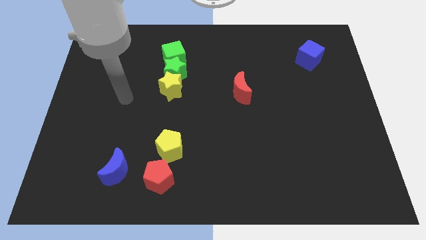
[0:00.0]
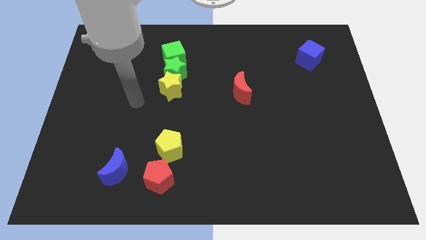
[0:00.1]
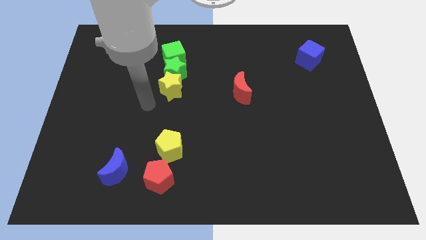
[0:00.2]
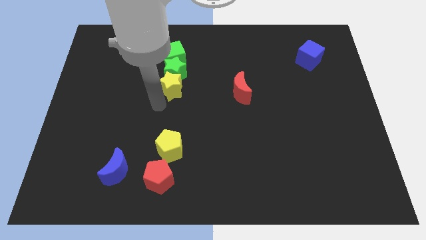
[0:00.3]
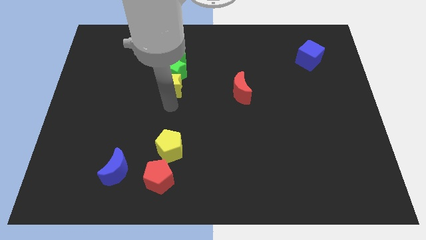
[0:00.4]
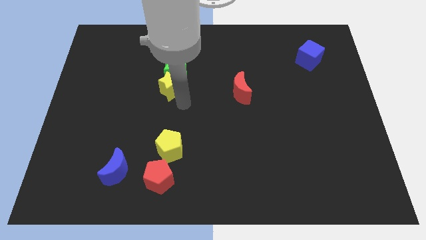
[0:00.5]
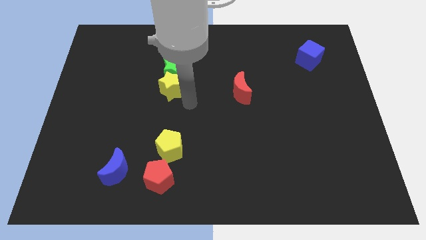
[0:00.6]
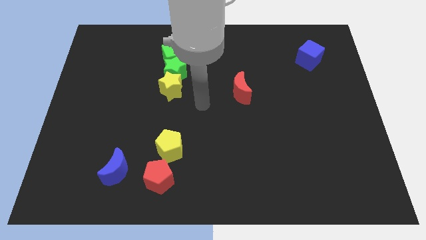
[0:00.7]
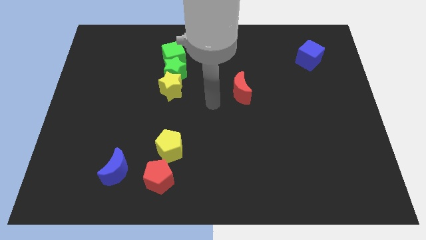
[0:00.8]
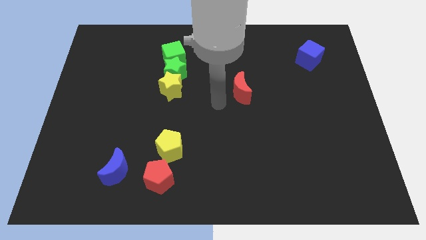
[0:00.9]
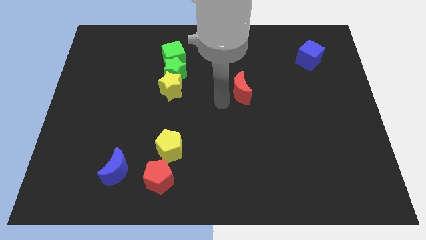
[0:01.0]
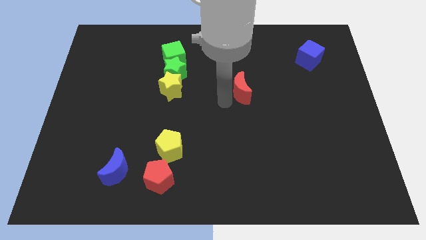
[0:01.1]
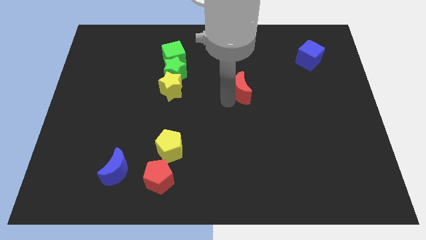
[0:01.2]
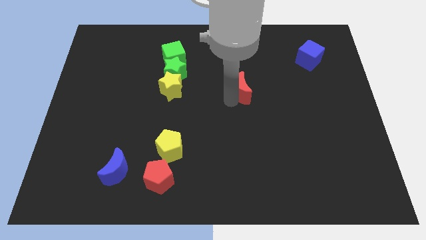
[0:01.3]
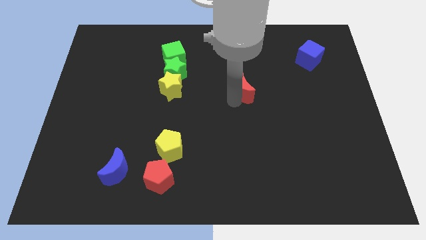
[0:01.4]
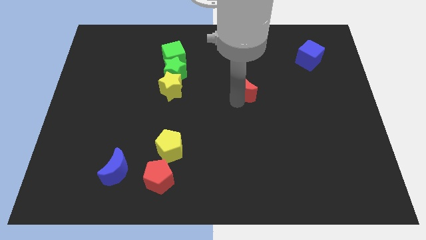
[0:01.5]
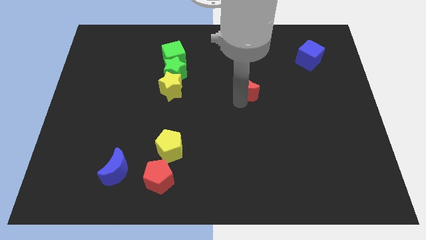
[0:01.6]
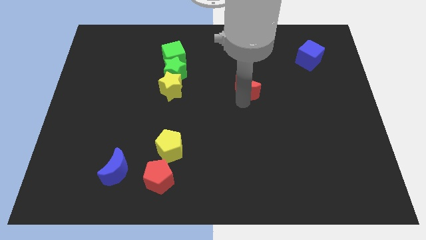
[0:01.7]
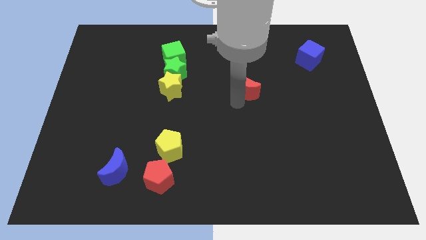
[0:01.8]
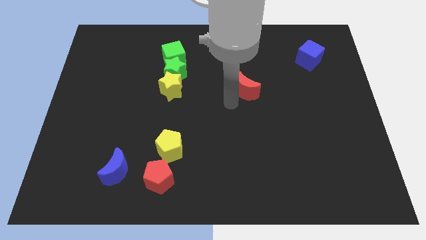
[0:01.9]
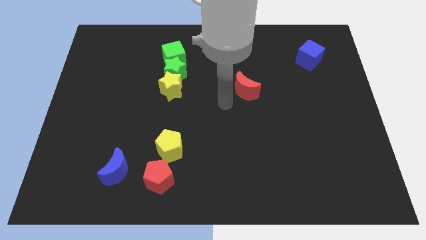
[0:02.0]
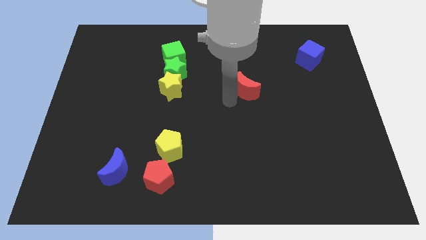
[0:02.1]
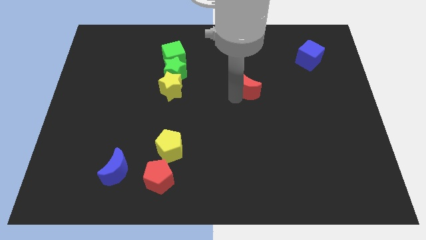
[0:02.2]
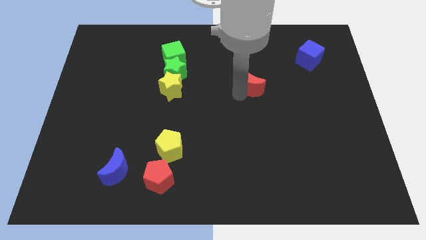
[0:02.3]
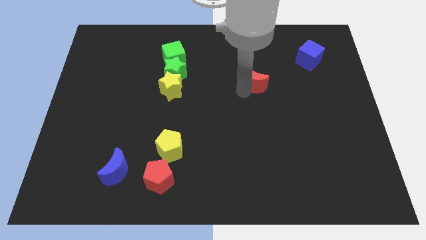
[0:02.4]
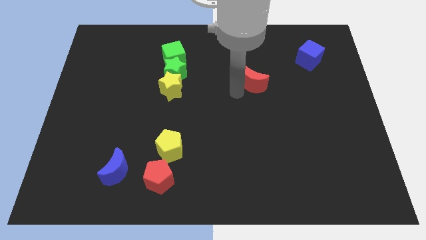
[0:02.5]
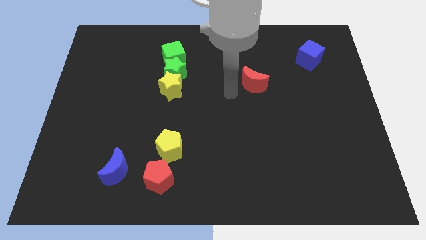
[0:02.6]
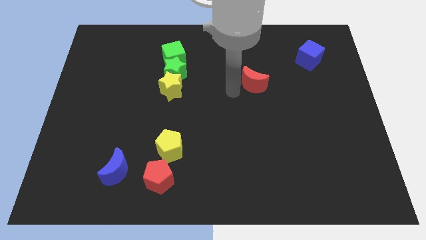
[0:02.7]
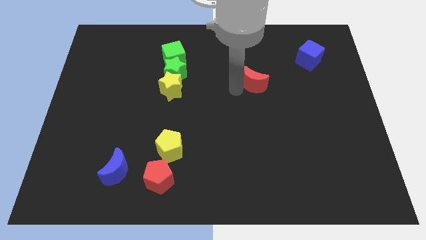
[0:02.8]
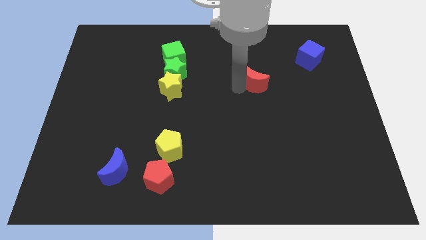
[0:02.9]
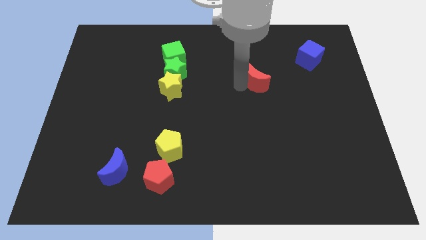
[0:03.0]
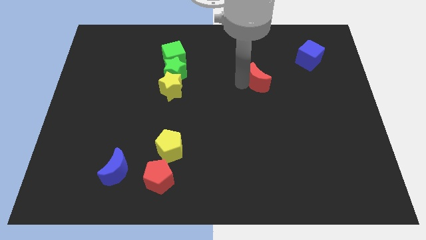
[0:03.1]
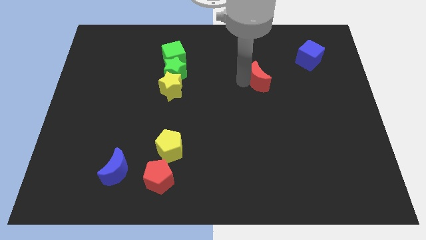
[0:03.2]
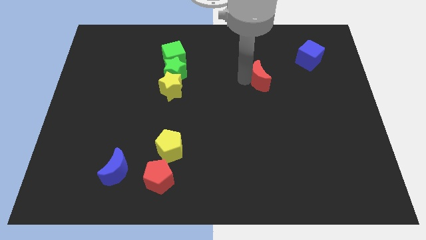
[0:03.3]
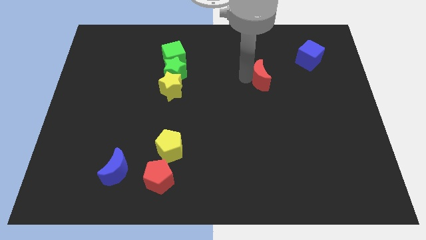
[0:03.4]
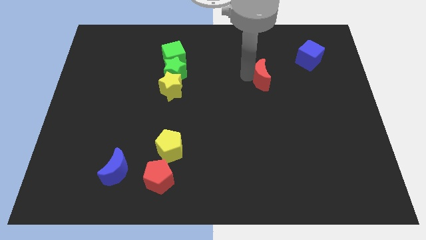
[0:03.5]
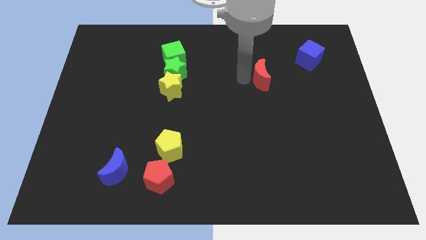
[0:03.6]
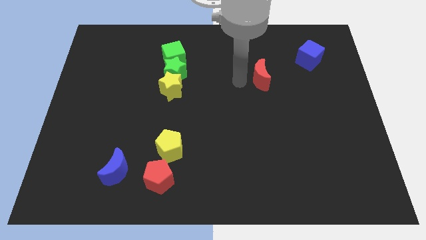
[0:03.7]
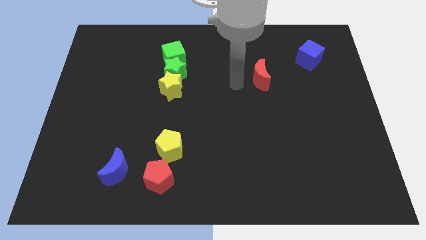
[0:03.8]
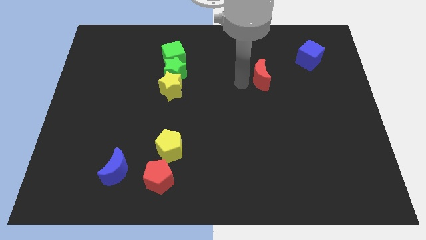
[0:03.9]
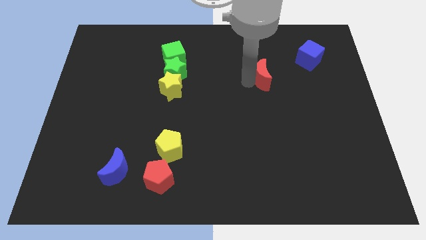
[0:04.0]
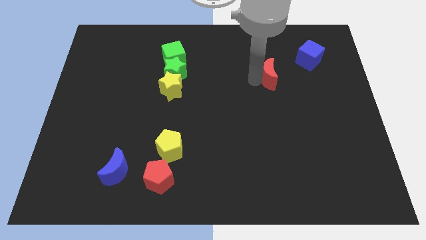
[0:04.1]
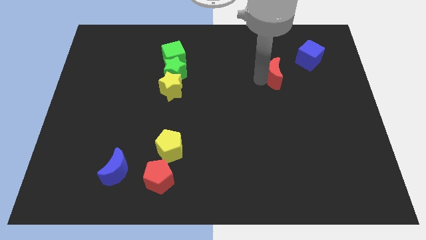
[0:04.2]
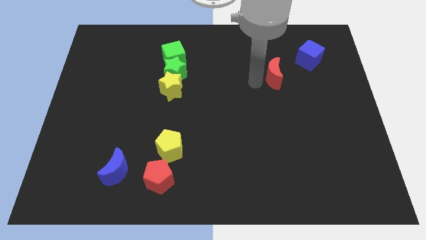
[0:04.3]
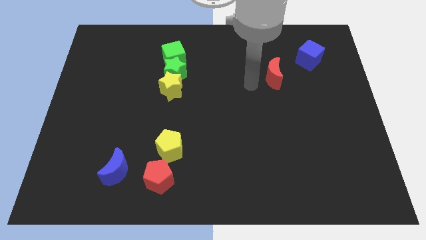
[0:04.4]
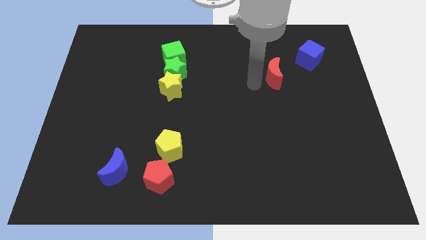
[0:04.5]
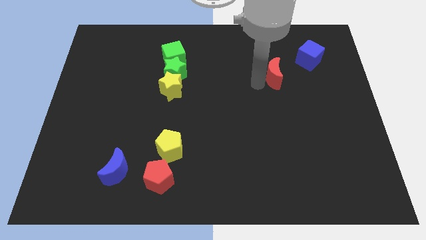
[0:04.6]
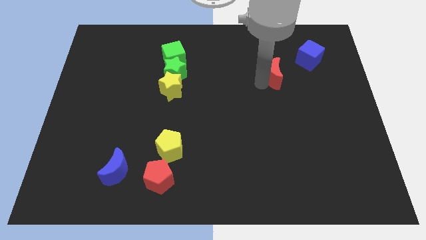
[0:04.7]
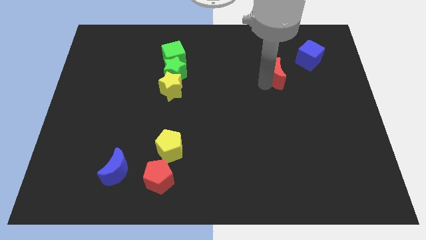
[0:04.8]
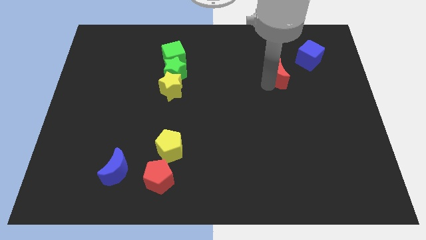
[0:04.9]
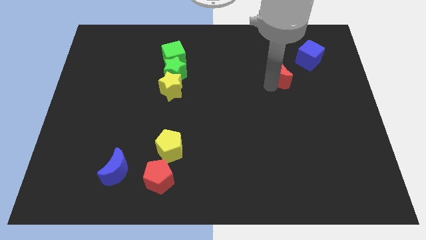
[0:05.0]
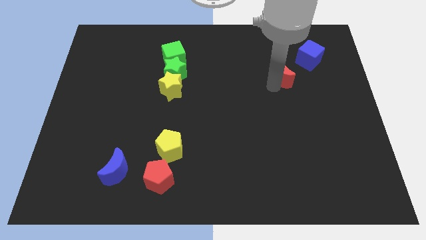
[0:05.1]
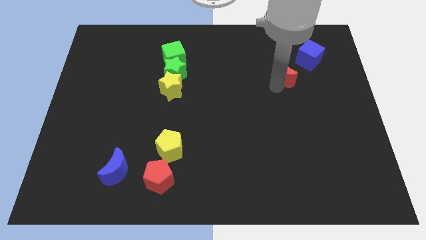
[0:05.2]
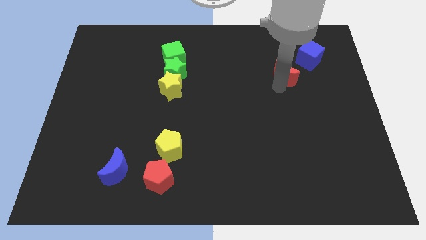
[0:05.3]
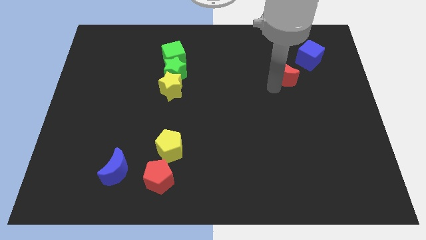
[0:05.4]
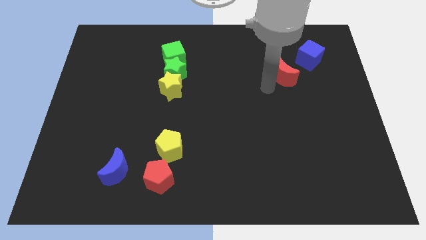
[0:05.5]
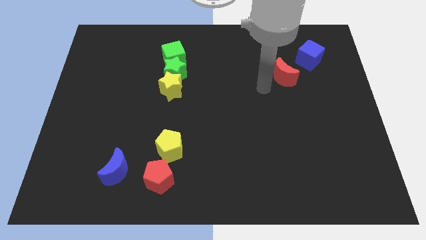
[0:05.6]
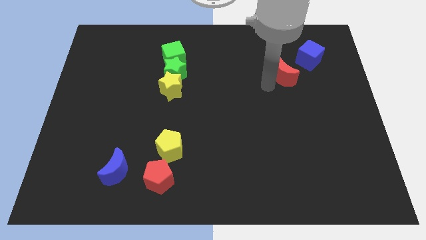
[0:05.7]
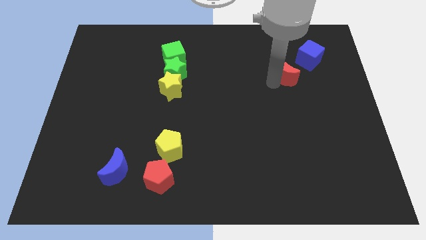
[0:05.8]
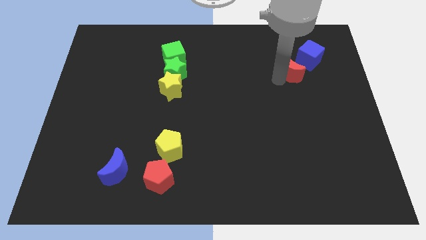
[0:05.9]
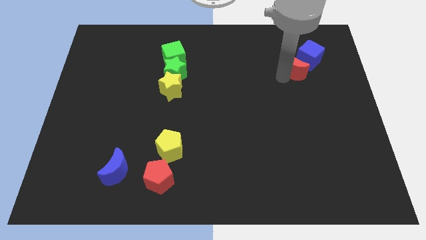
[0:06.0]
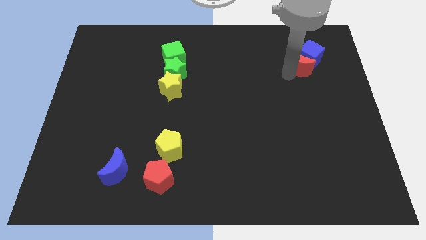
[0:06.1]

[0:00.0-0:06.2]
put the red moon next to the blue cube

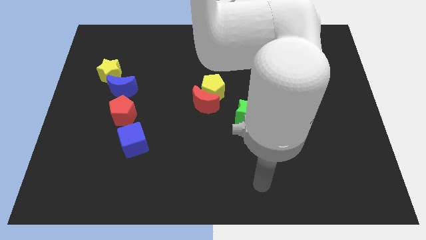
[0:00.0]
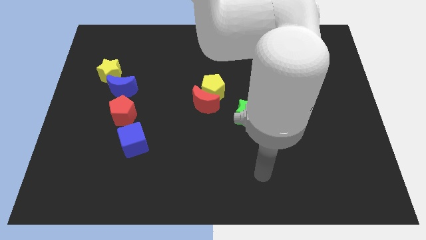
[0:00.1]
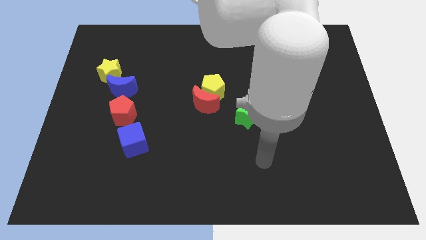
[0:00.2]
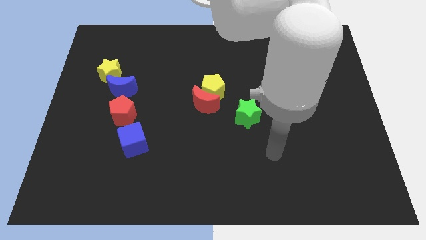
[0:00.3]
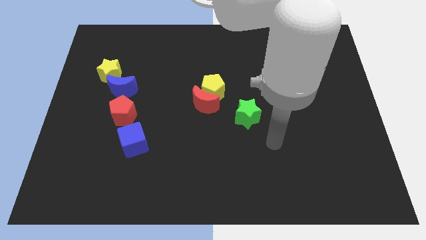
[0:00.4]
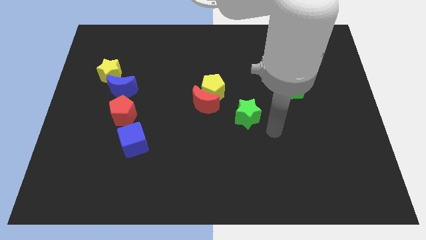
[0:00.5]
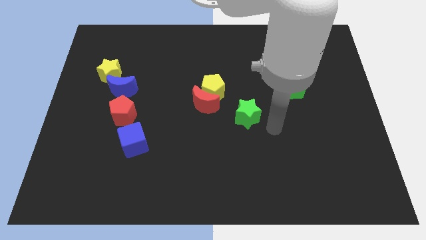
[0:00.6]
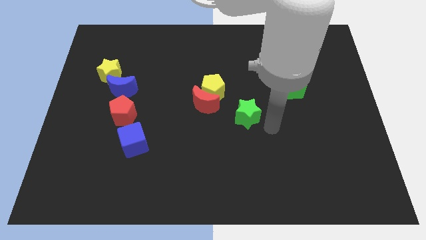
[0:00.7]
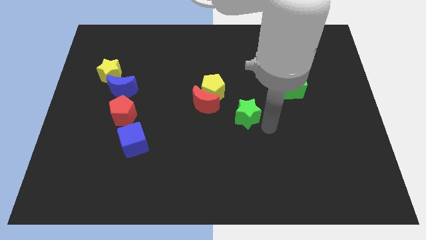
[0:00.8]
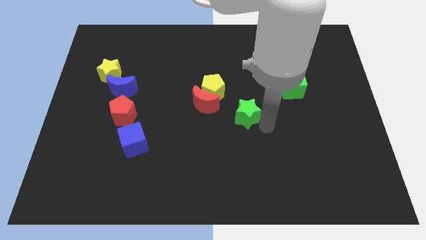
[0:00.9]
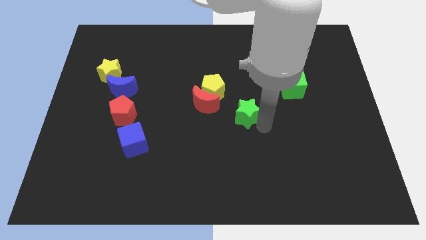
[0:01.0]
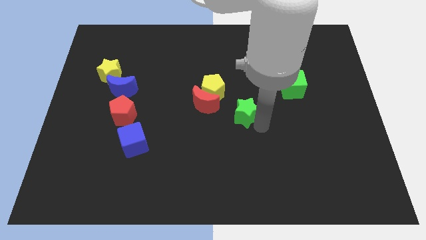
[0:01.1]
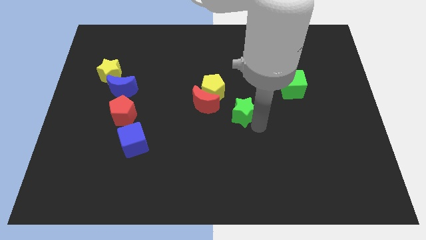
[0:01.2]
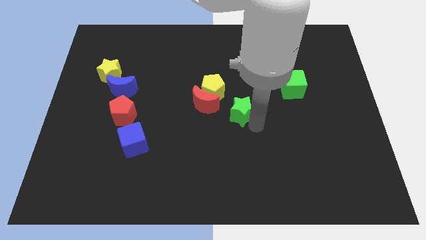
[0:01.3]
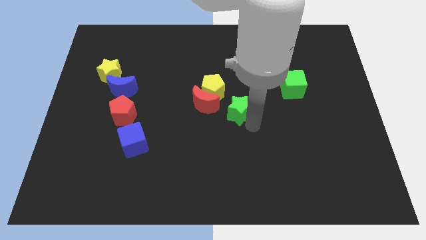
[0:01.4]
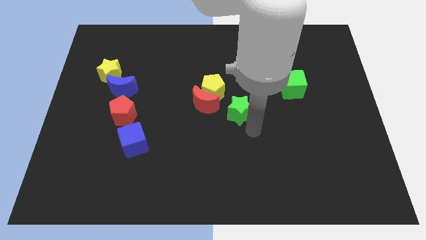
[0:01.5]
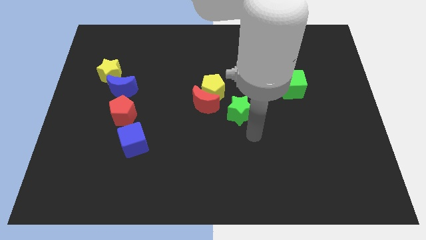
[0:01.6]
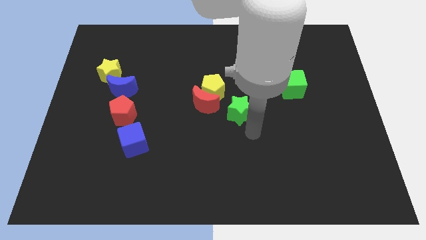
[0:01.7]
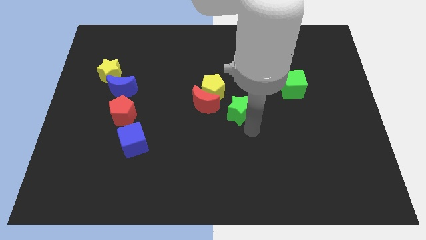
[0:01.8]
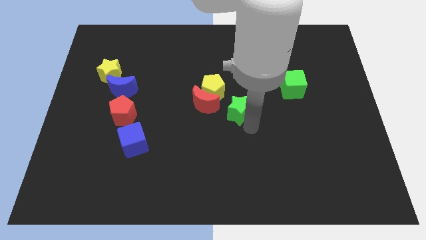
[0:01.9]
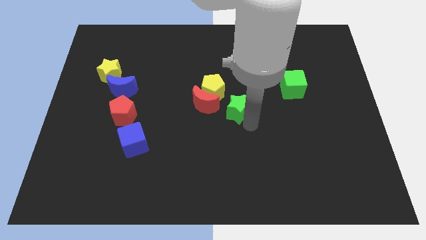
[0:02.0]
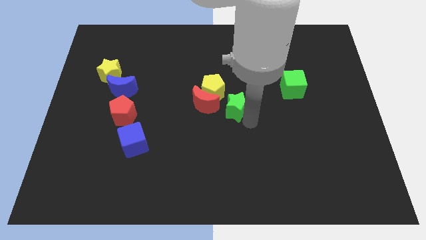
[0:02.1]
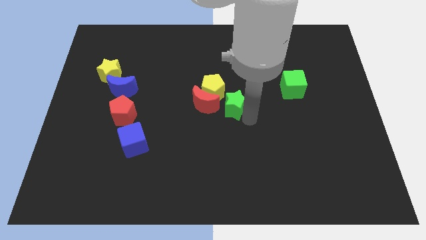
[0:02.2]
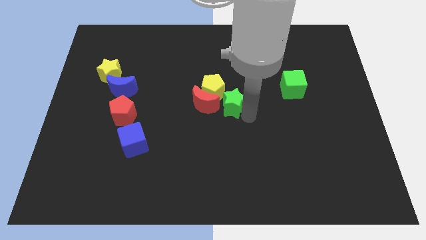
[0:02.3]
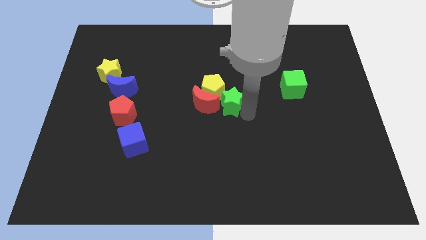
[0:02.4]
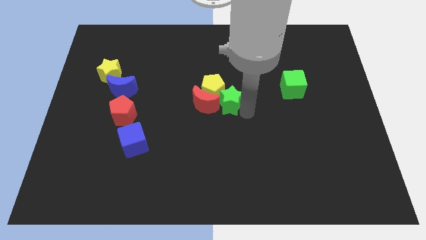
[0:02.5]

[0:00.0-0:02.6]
push the green star next to the yellow pentagon
